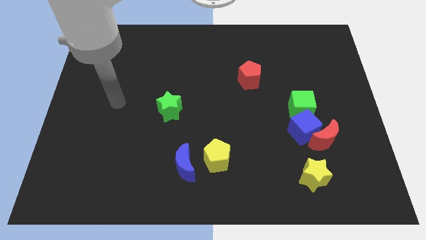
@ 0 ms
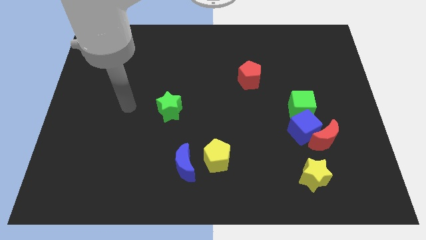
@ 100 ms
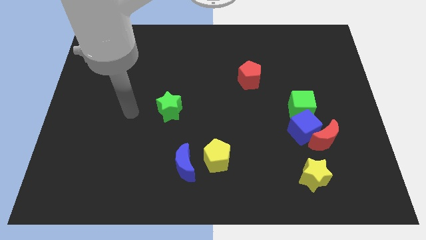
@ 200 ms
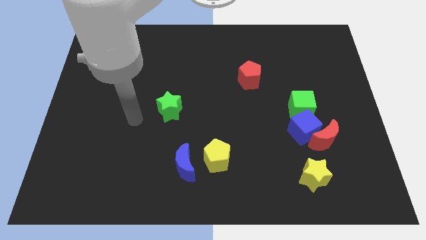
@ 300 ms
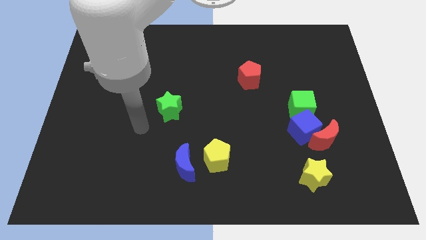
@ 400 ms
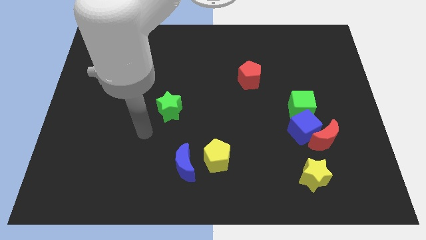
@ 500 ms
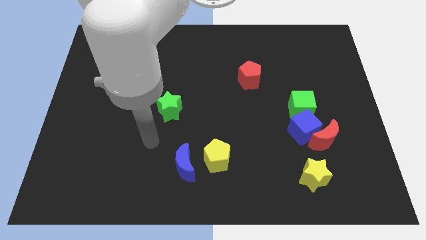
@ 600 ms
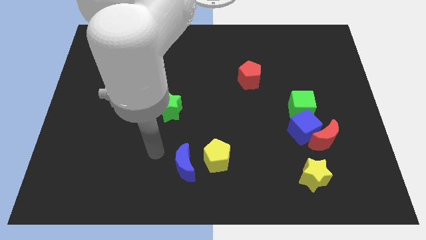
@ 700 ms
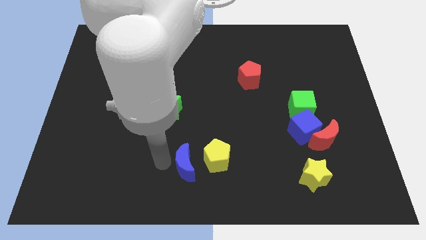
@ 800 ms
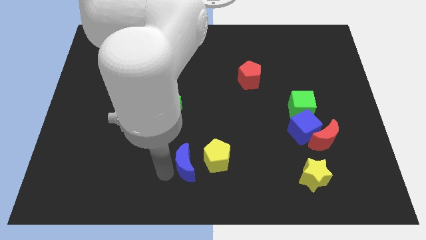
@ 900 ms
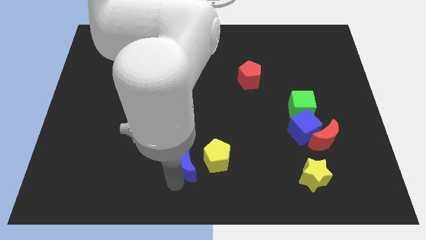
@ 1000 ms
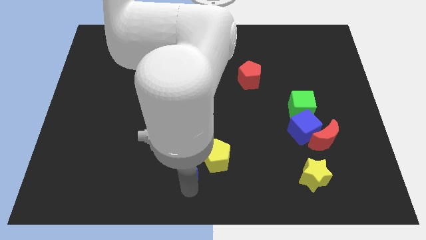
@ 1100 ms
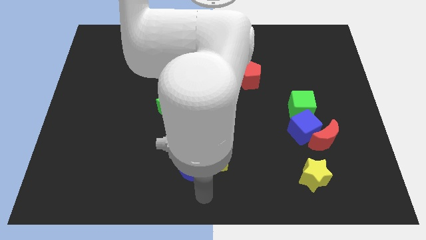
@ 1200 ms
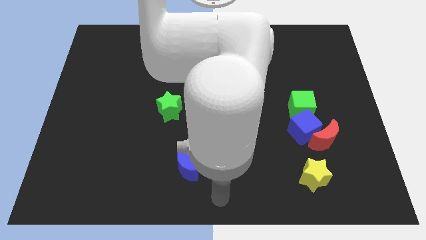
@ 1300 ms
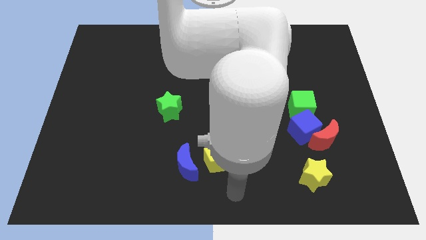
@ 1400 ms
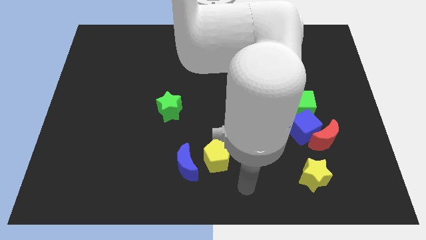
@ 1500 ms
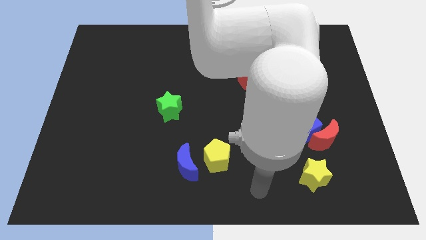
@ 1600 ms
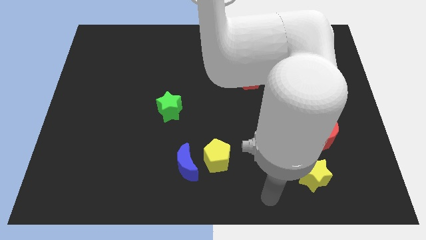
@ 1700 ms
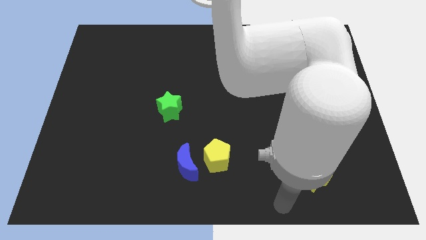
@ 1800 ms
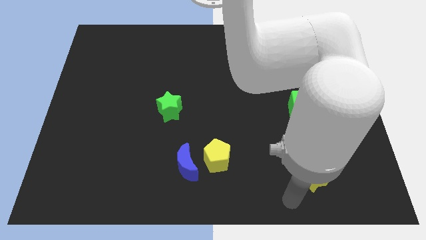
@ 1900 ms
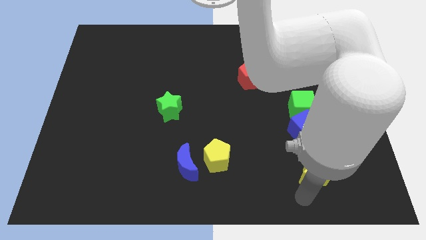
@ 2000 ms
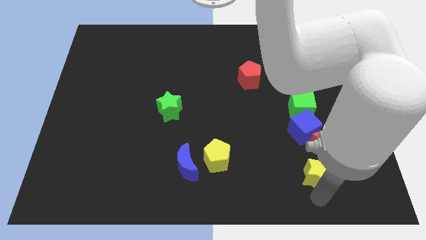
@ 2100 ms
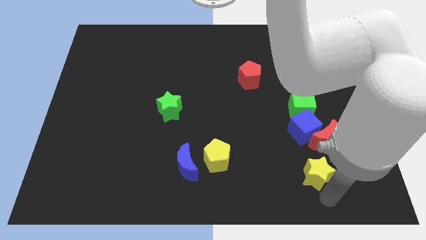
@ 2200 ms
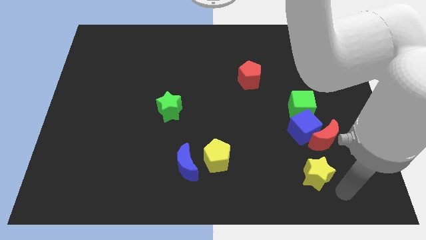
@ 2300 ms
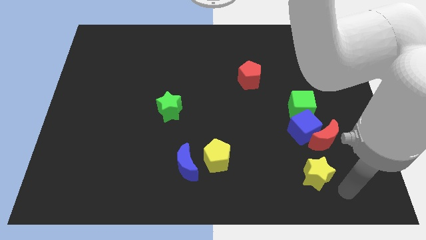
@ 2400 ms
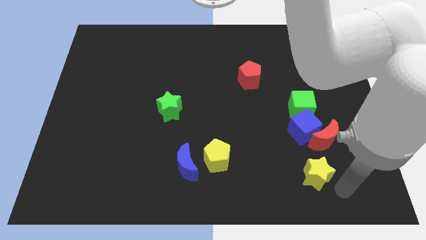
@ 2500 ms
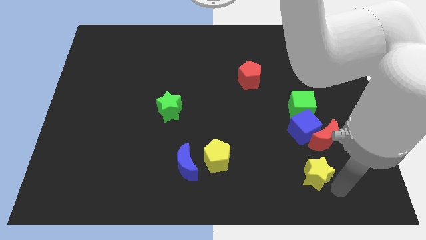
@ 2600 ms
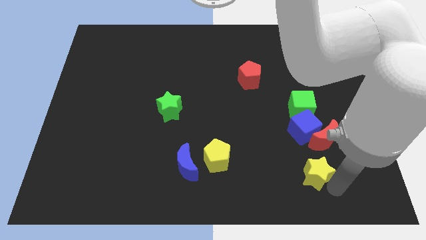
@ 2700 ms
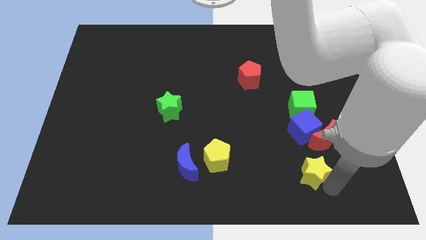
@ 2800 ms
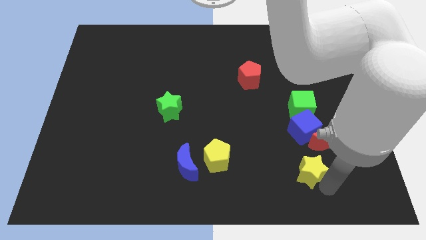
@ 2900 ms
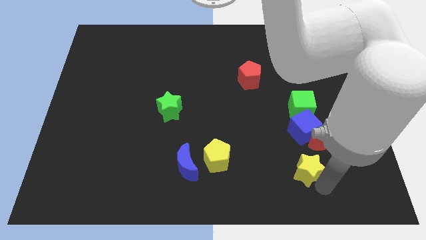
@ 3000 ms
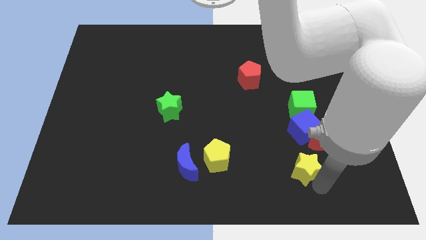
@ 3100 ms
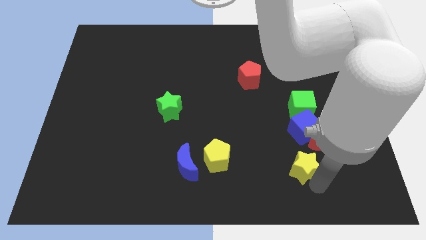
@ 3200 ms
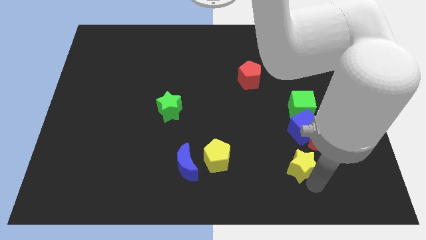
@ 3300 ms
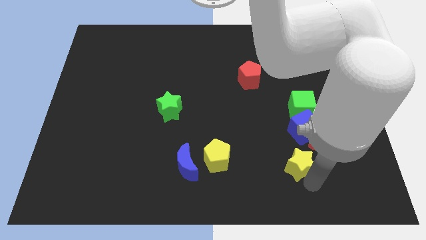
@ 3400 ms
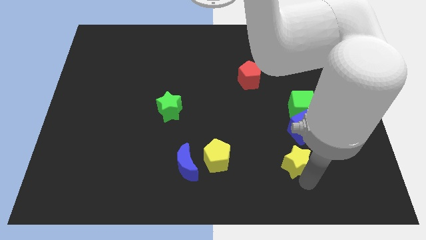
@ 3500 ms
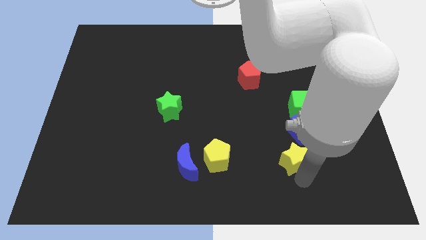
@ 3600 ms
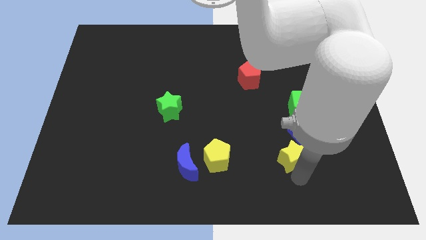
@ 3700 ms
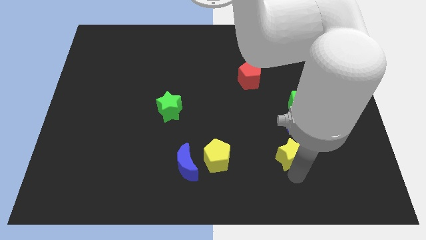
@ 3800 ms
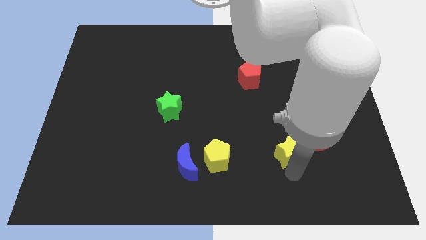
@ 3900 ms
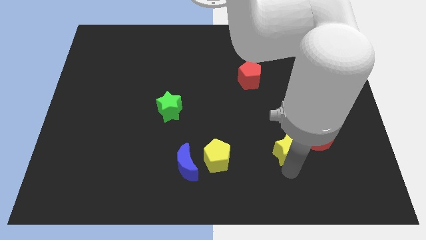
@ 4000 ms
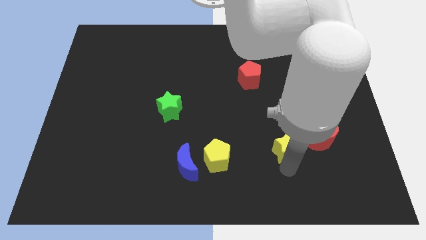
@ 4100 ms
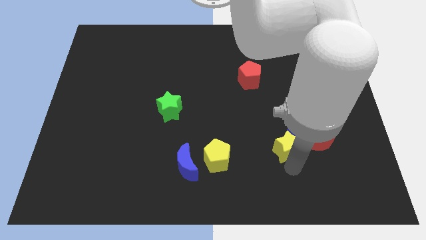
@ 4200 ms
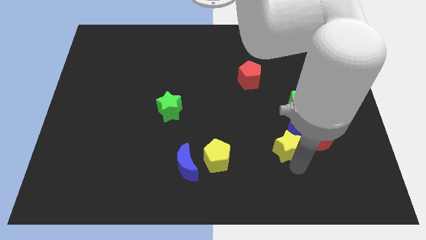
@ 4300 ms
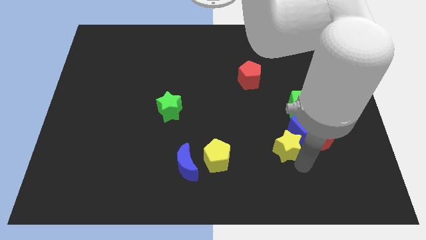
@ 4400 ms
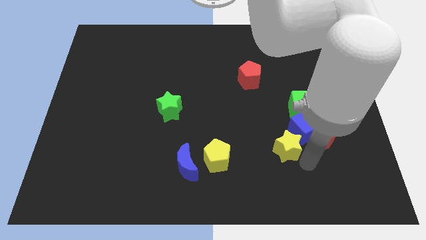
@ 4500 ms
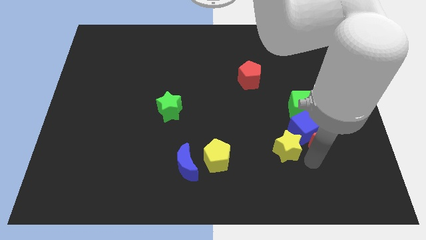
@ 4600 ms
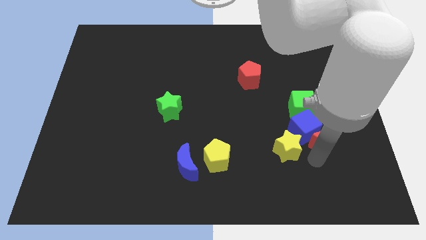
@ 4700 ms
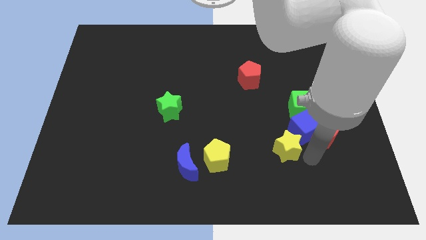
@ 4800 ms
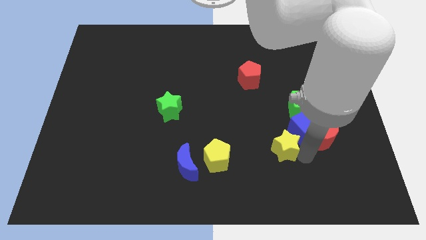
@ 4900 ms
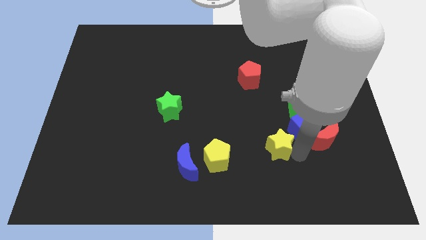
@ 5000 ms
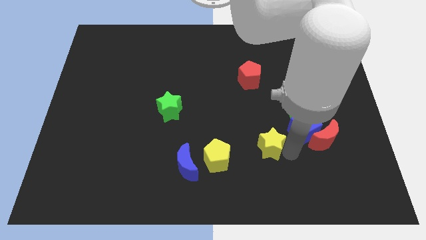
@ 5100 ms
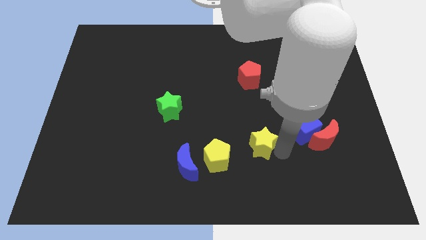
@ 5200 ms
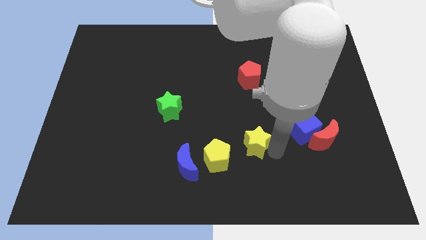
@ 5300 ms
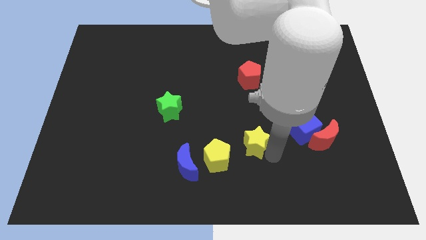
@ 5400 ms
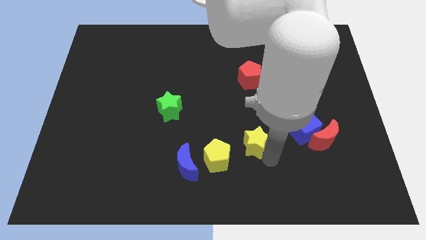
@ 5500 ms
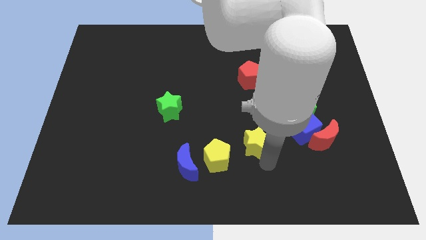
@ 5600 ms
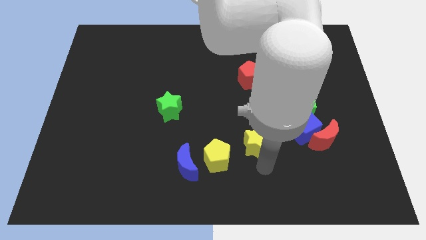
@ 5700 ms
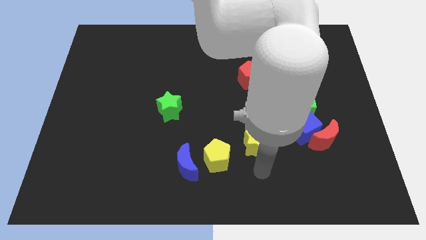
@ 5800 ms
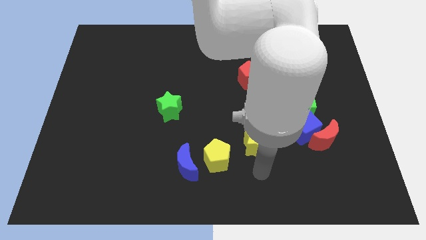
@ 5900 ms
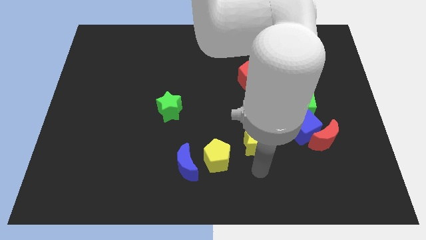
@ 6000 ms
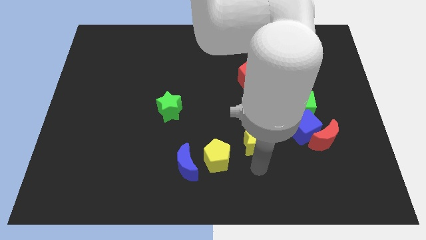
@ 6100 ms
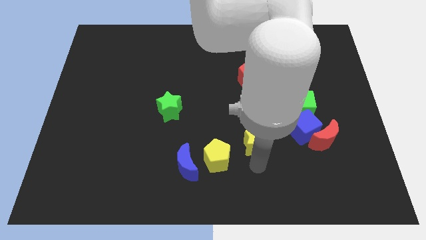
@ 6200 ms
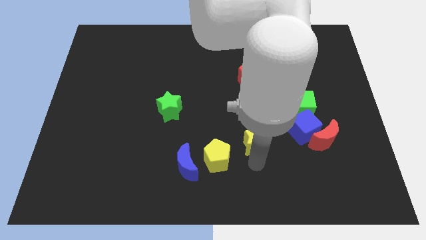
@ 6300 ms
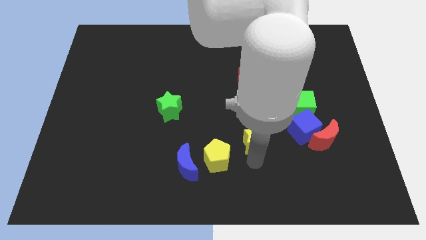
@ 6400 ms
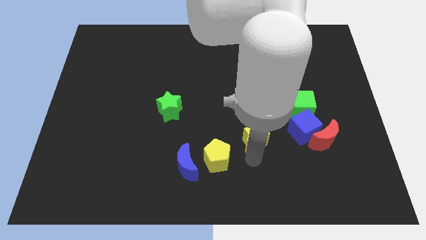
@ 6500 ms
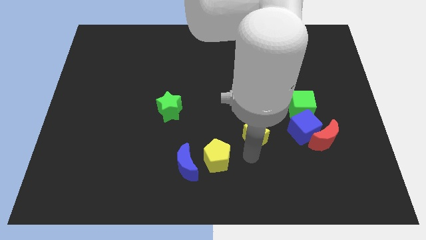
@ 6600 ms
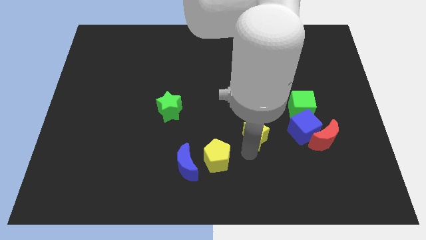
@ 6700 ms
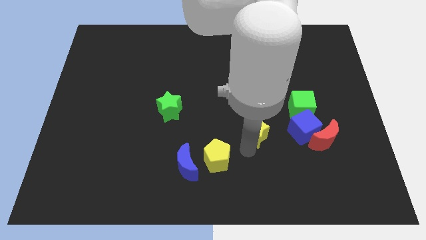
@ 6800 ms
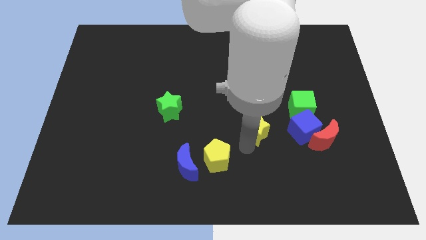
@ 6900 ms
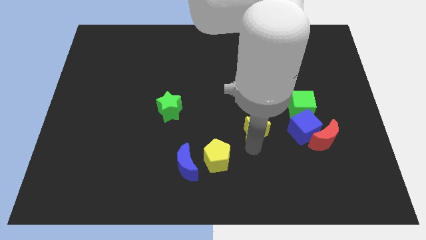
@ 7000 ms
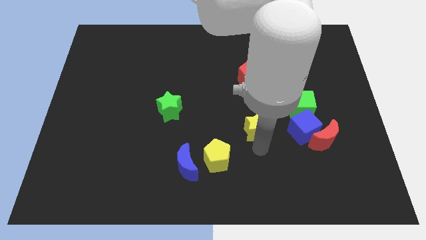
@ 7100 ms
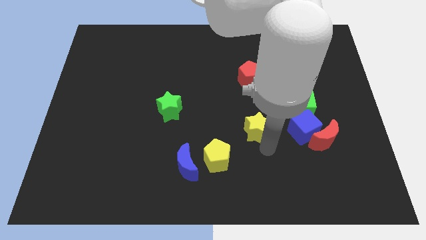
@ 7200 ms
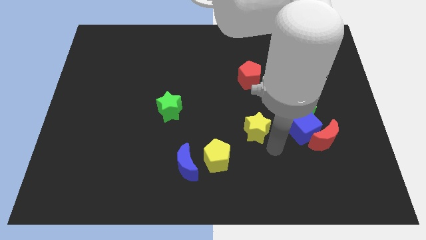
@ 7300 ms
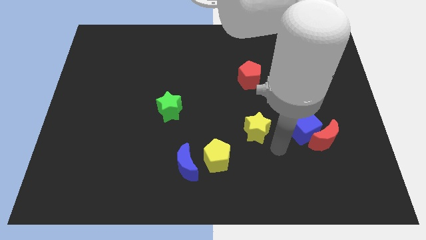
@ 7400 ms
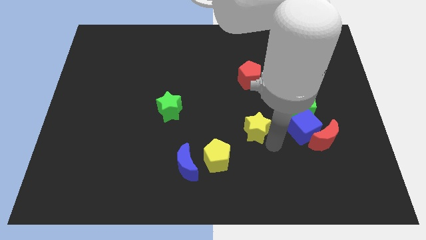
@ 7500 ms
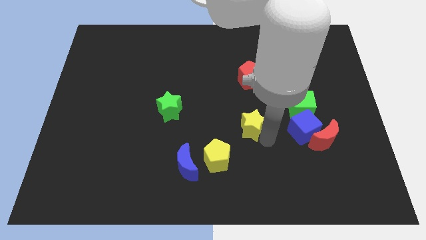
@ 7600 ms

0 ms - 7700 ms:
put the yellow star to the middle

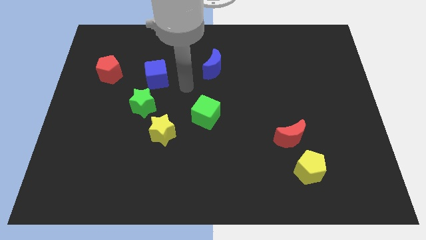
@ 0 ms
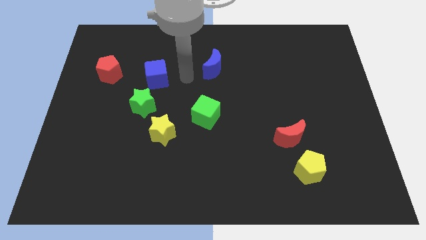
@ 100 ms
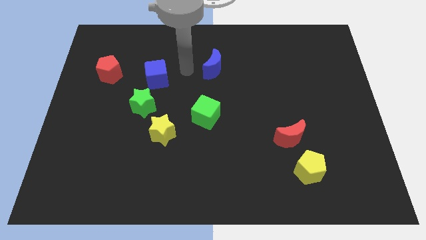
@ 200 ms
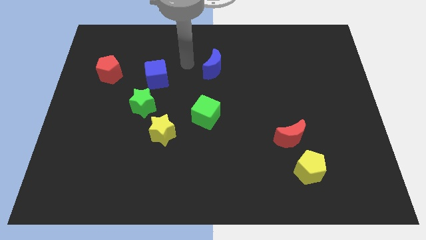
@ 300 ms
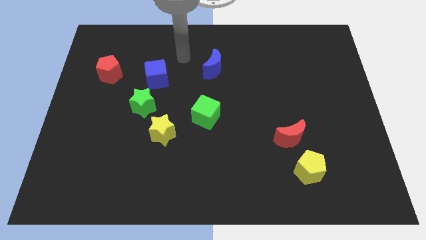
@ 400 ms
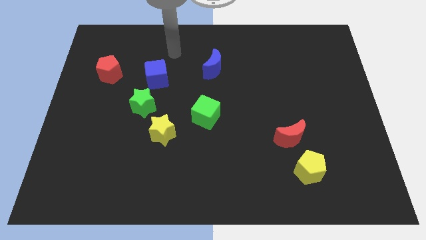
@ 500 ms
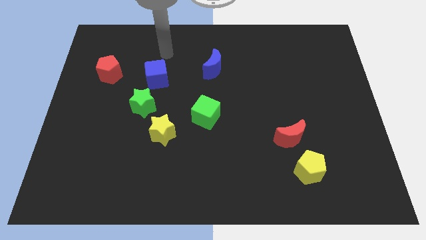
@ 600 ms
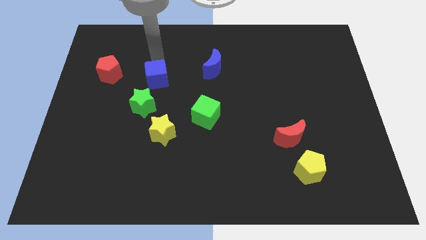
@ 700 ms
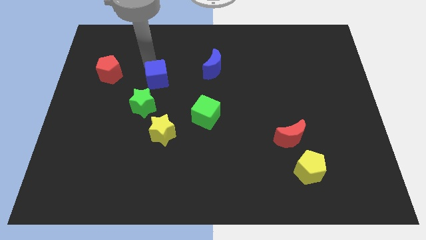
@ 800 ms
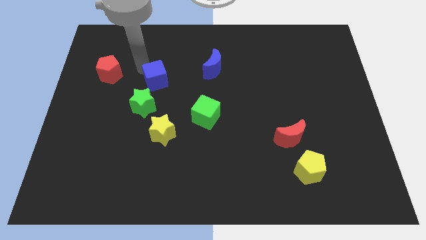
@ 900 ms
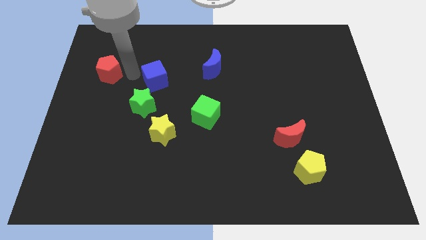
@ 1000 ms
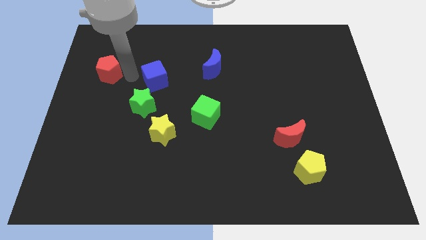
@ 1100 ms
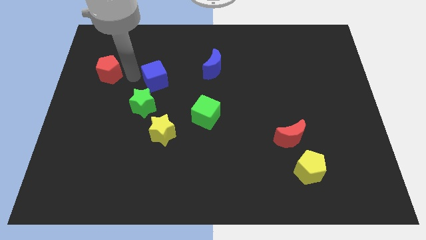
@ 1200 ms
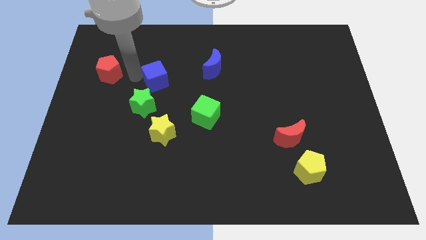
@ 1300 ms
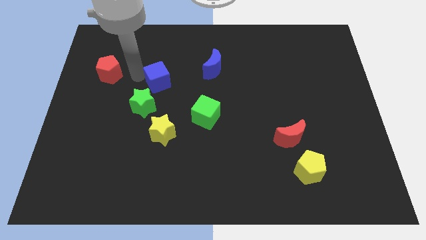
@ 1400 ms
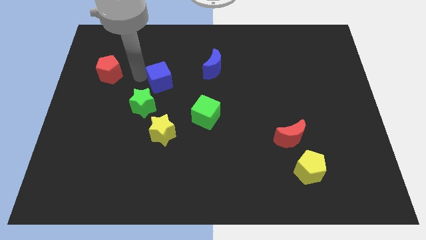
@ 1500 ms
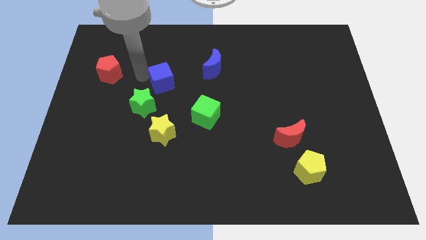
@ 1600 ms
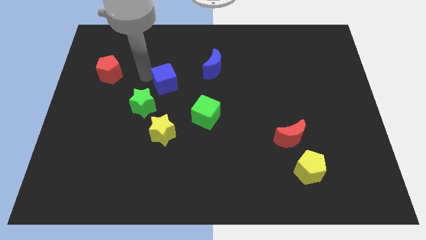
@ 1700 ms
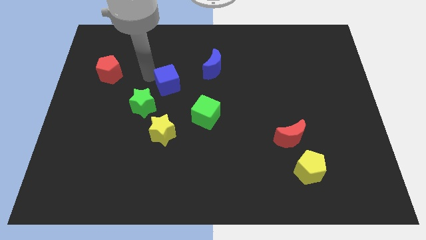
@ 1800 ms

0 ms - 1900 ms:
push the blue cube to the center
